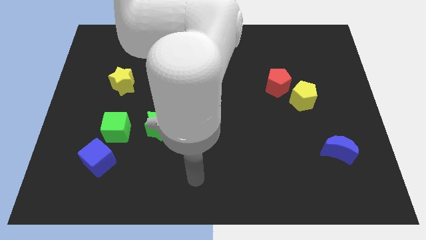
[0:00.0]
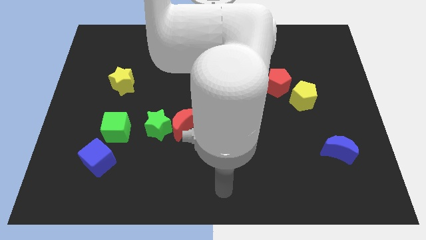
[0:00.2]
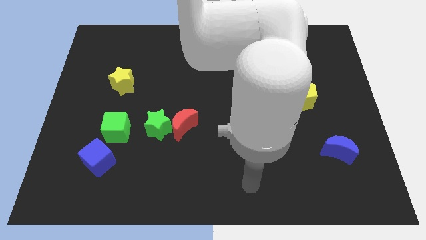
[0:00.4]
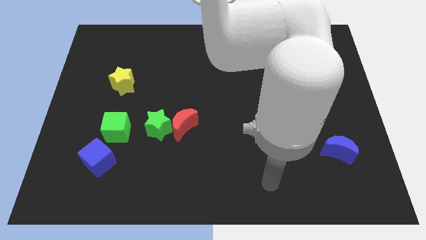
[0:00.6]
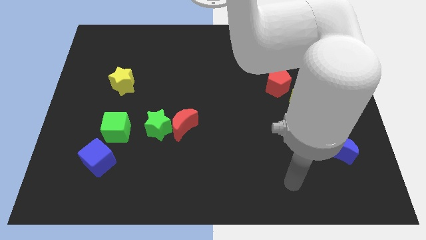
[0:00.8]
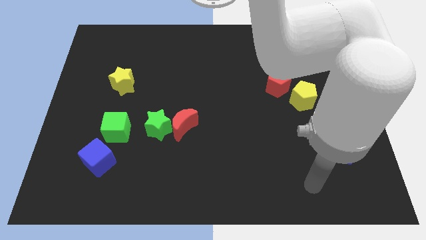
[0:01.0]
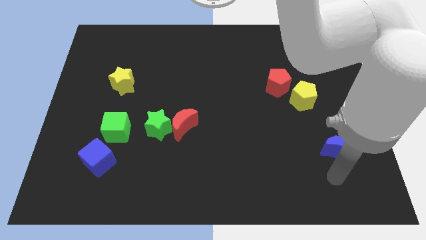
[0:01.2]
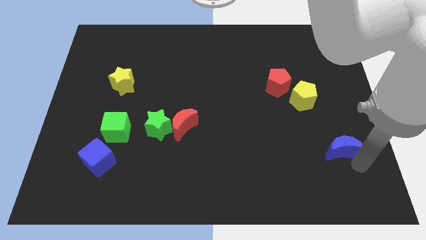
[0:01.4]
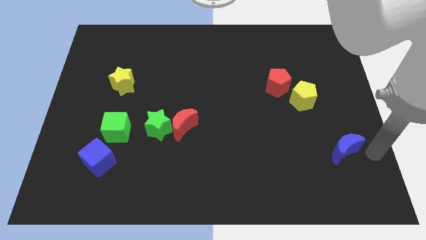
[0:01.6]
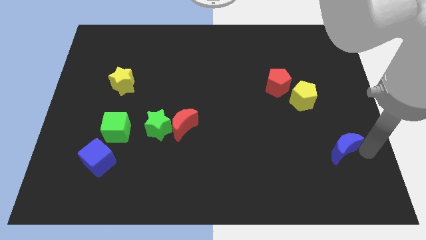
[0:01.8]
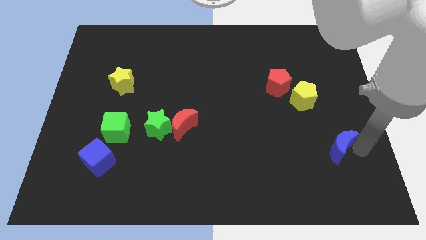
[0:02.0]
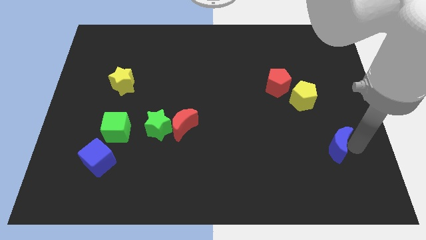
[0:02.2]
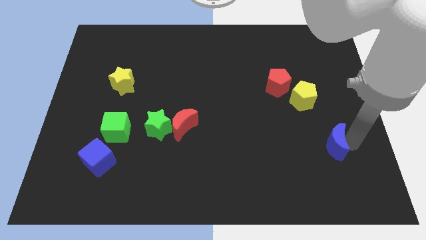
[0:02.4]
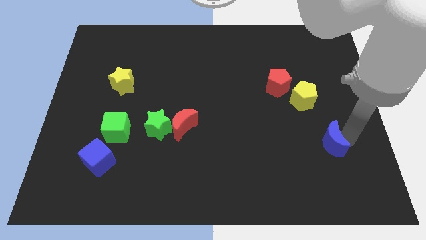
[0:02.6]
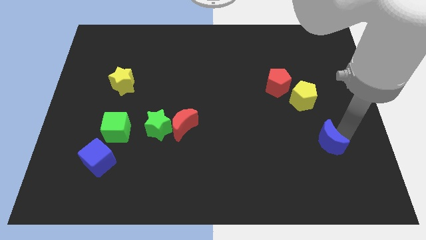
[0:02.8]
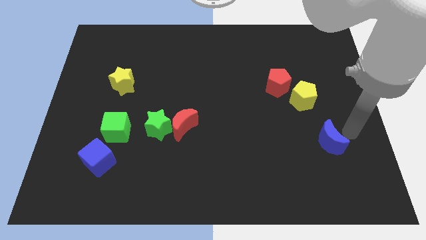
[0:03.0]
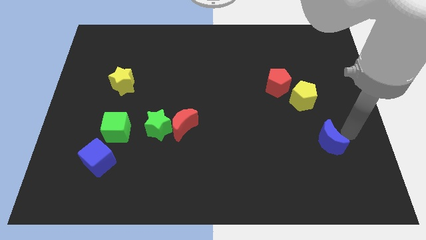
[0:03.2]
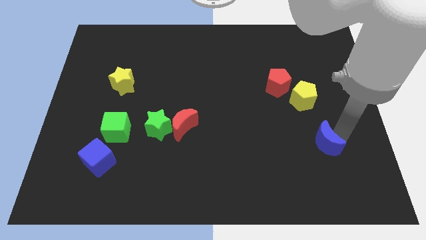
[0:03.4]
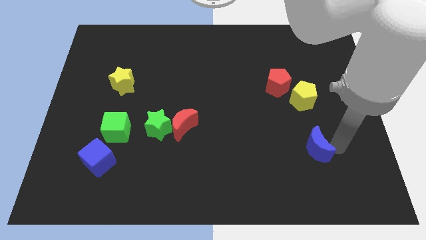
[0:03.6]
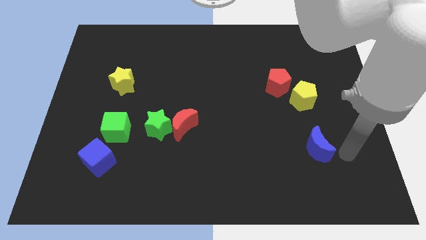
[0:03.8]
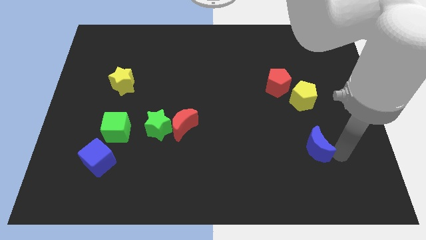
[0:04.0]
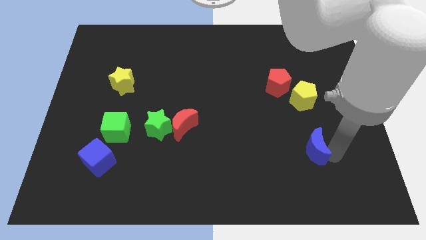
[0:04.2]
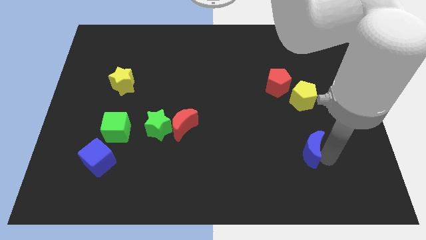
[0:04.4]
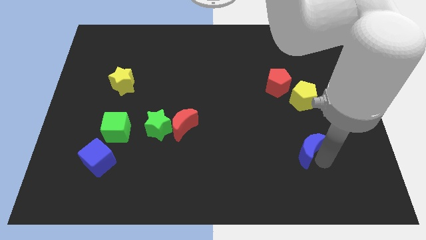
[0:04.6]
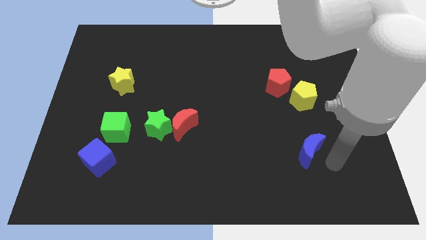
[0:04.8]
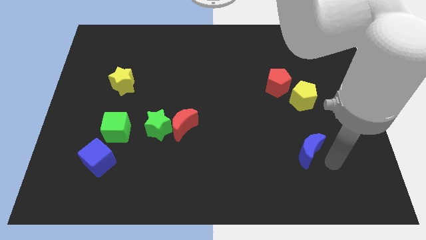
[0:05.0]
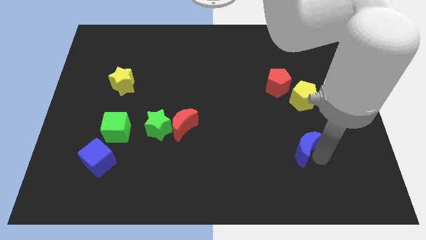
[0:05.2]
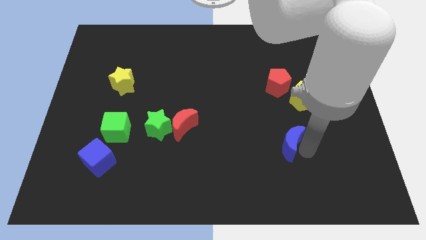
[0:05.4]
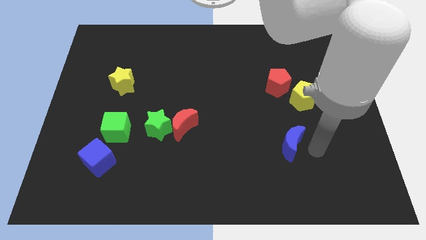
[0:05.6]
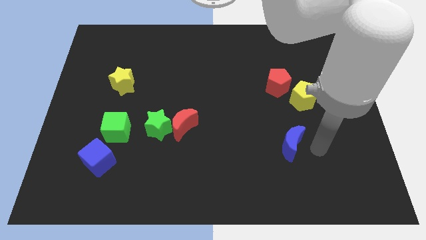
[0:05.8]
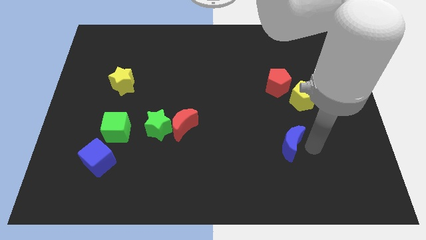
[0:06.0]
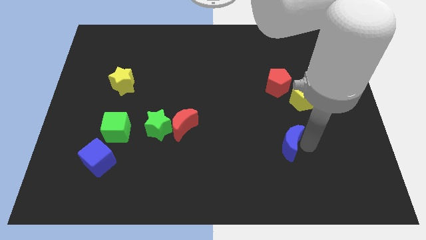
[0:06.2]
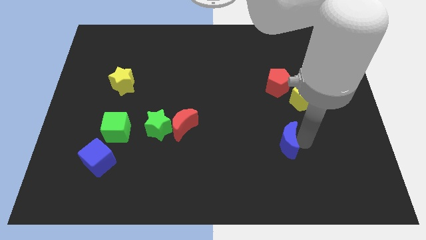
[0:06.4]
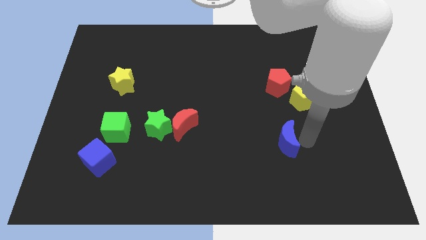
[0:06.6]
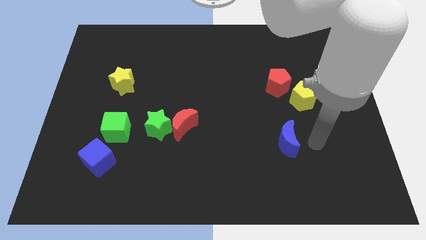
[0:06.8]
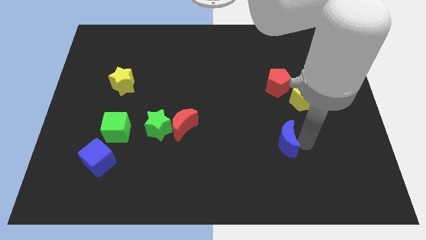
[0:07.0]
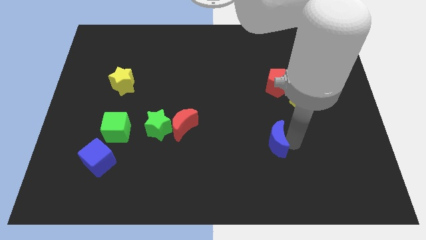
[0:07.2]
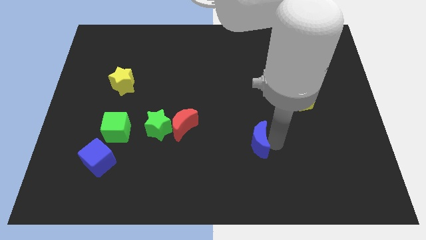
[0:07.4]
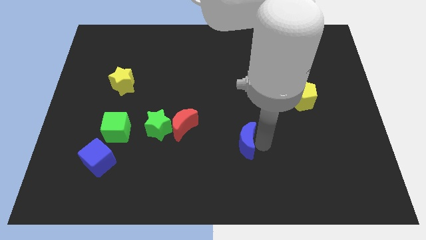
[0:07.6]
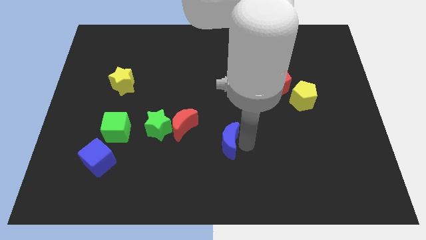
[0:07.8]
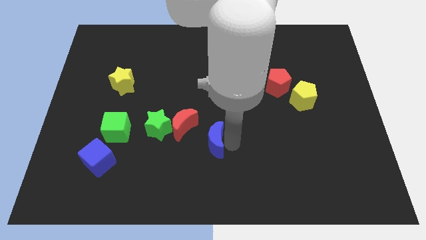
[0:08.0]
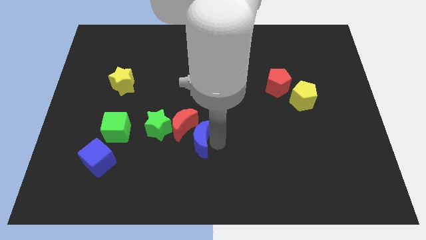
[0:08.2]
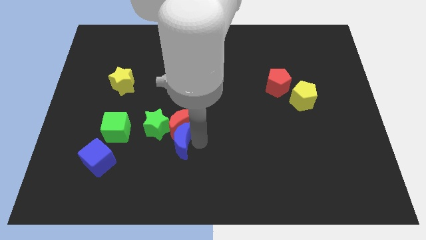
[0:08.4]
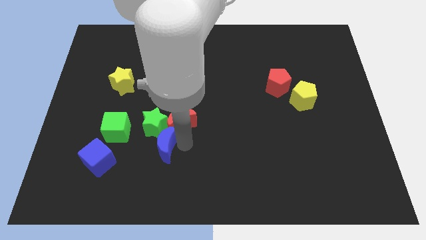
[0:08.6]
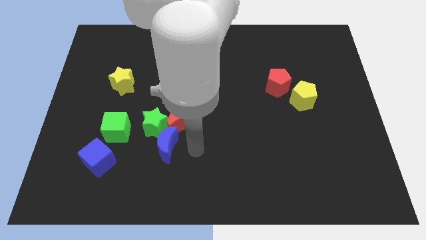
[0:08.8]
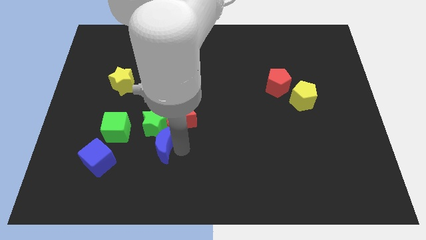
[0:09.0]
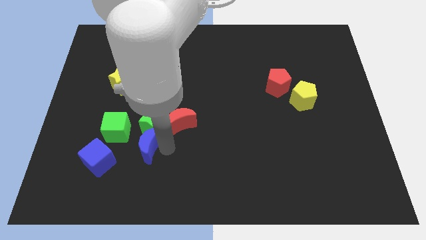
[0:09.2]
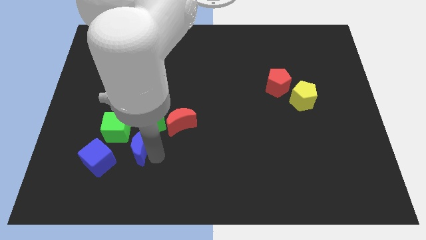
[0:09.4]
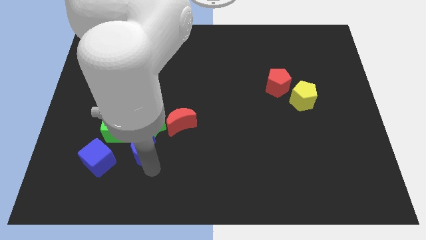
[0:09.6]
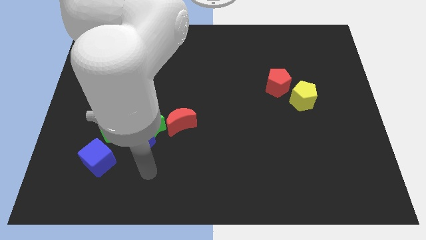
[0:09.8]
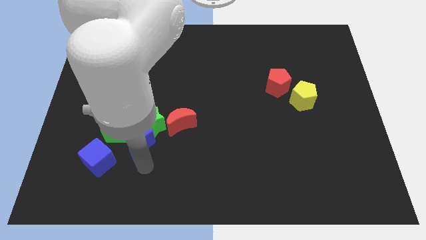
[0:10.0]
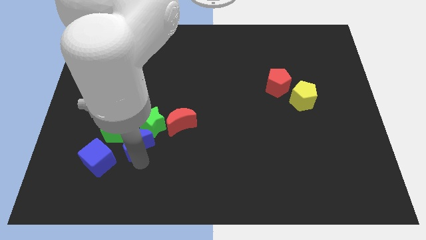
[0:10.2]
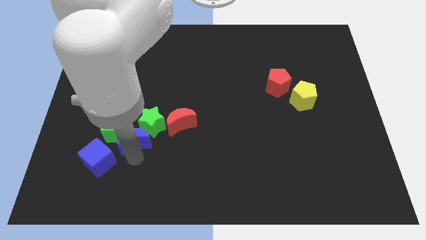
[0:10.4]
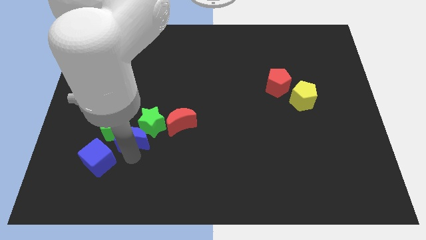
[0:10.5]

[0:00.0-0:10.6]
put the blue moon just left of the red moon

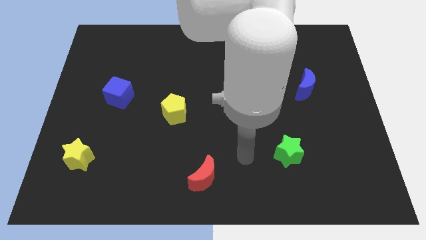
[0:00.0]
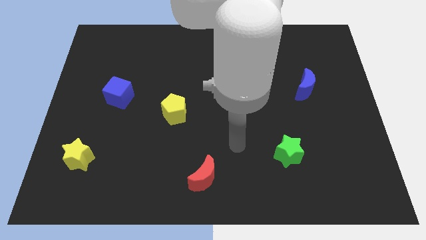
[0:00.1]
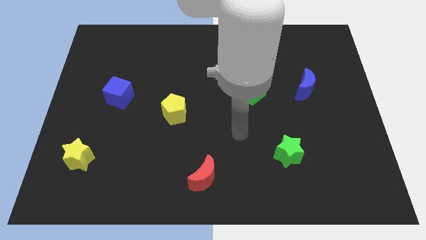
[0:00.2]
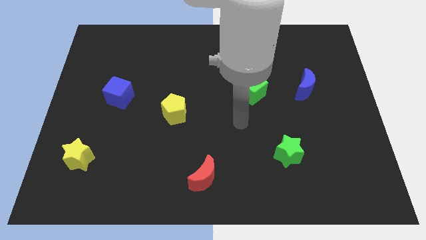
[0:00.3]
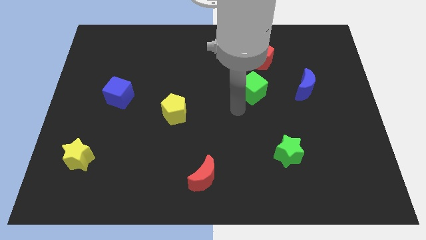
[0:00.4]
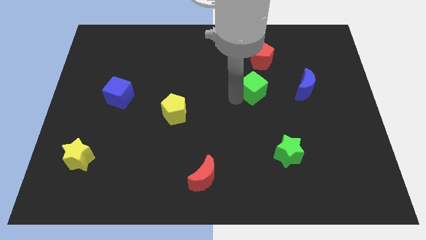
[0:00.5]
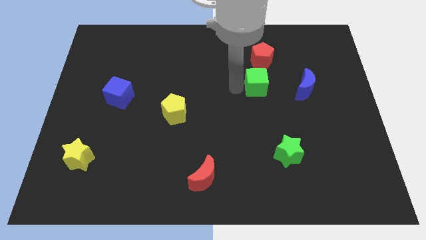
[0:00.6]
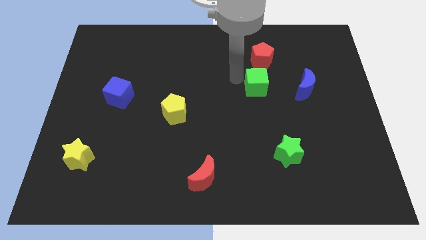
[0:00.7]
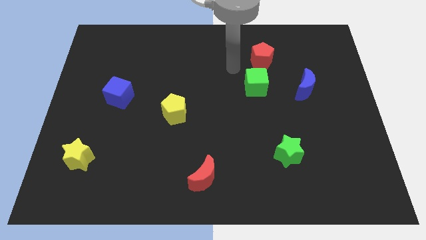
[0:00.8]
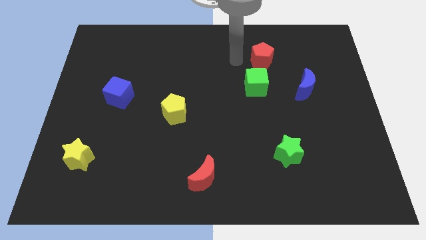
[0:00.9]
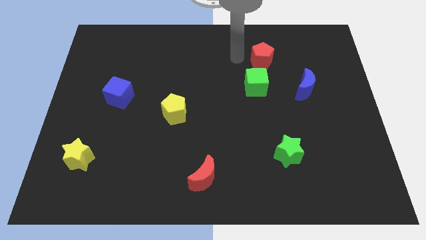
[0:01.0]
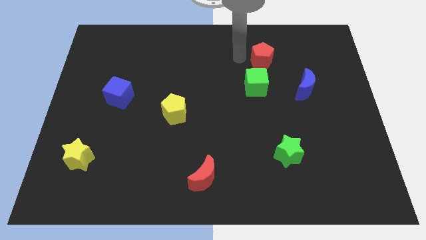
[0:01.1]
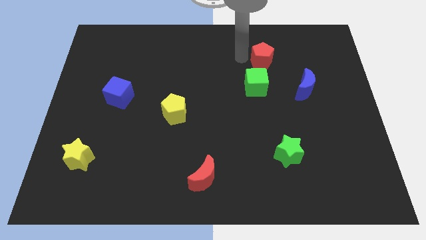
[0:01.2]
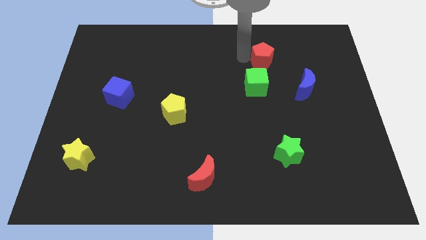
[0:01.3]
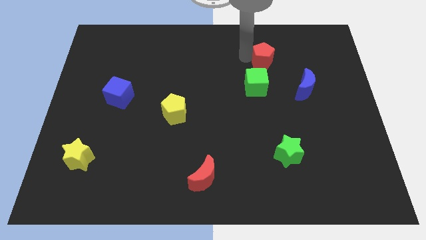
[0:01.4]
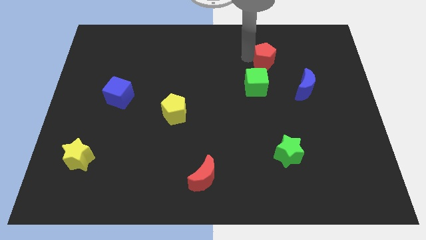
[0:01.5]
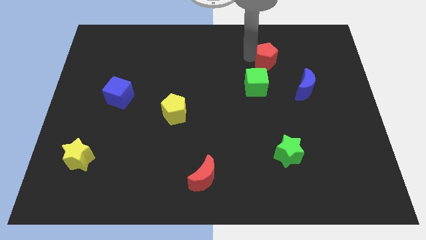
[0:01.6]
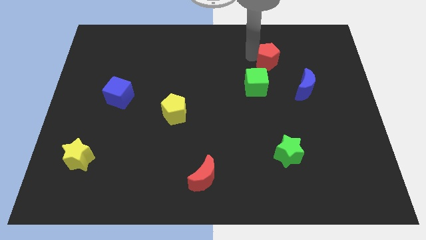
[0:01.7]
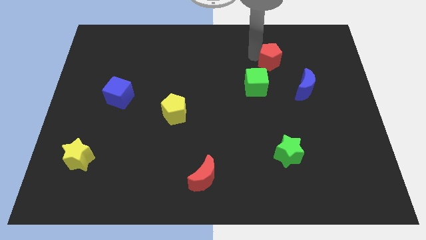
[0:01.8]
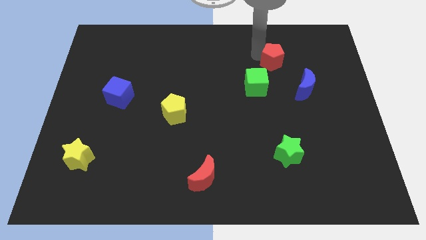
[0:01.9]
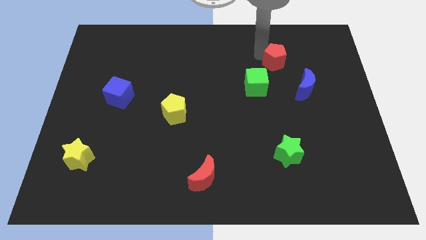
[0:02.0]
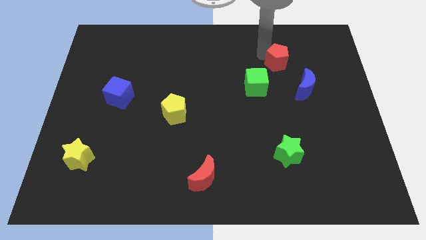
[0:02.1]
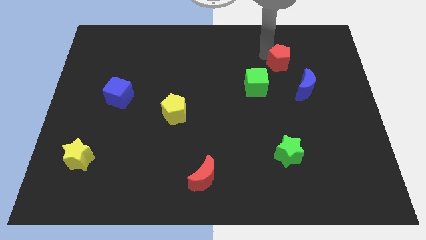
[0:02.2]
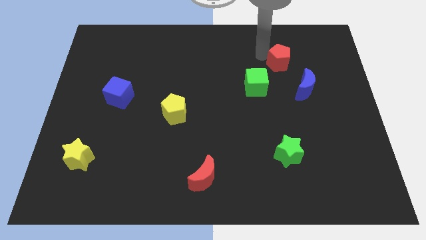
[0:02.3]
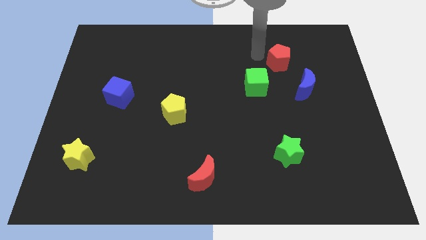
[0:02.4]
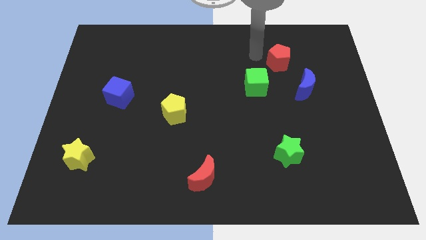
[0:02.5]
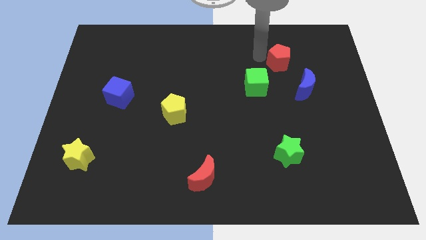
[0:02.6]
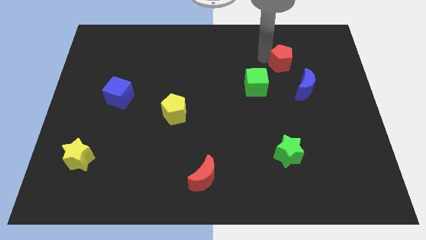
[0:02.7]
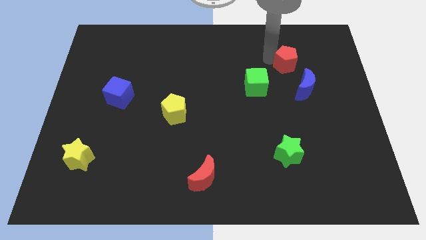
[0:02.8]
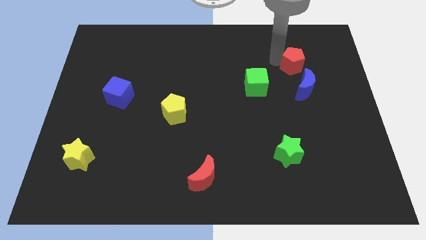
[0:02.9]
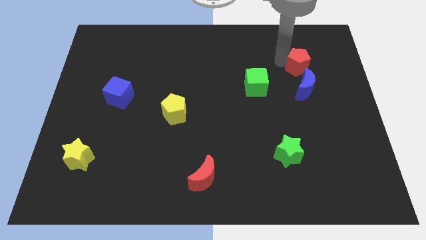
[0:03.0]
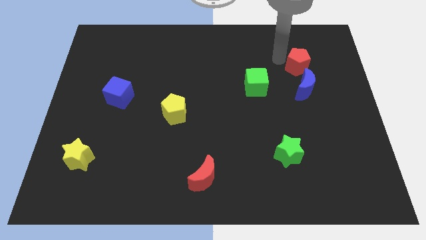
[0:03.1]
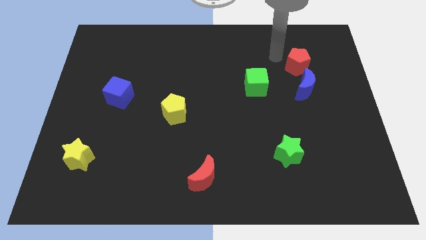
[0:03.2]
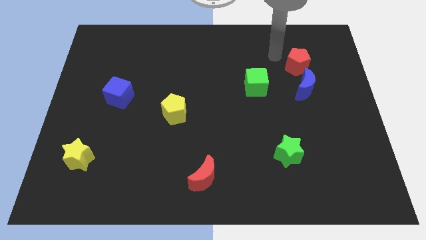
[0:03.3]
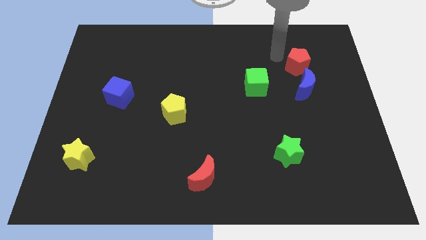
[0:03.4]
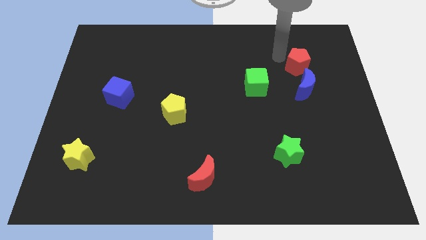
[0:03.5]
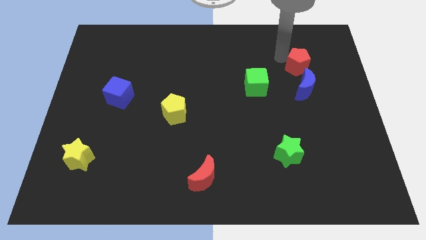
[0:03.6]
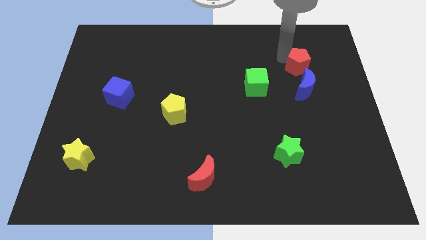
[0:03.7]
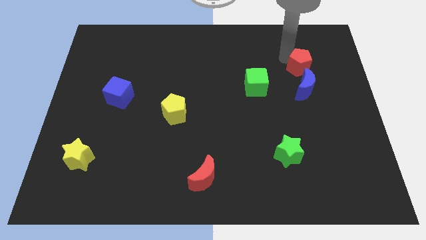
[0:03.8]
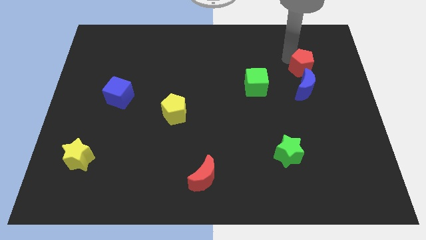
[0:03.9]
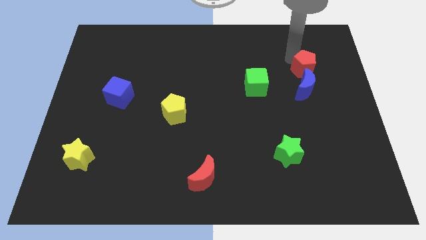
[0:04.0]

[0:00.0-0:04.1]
put the red pentagon diagonally up and to the right of the blue moon
